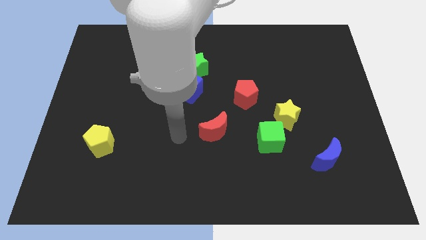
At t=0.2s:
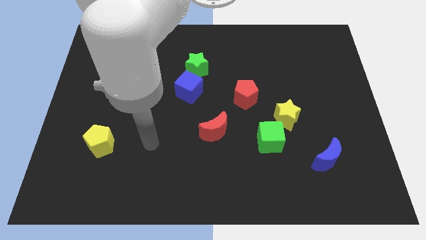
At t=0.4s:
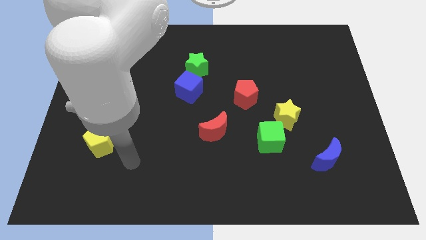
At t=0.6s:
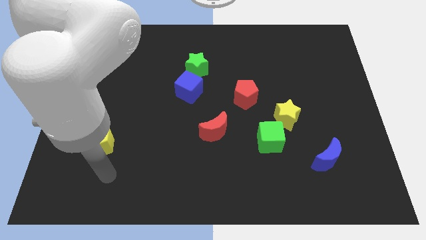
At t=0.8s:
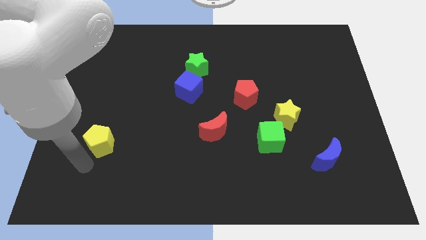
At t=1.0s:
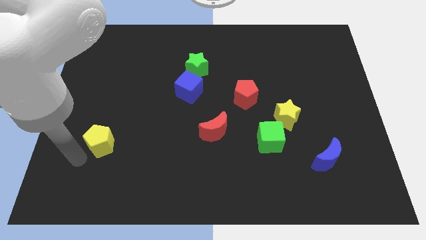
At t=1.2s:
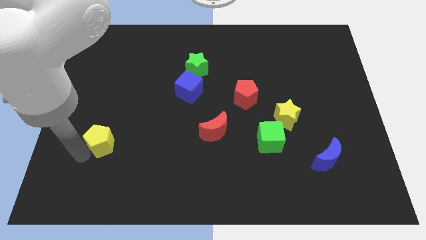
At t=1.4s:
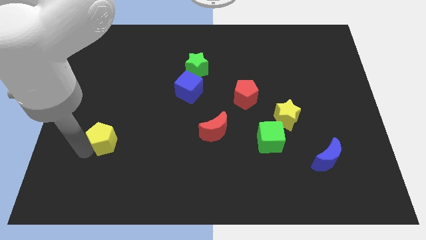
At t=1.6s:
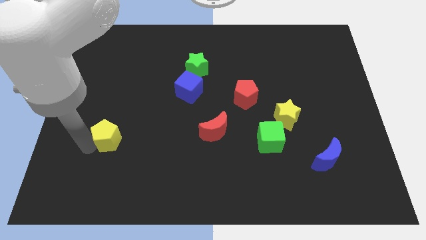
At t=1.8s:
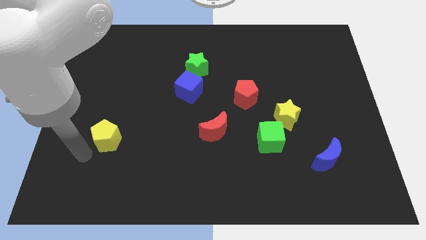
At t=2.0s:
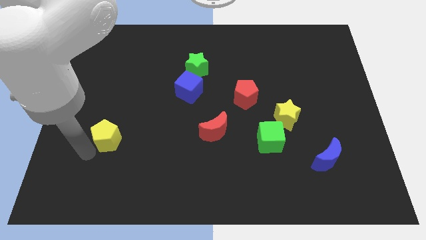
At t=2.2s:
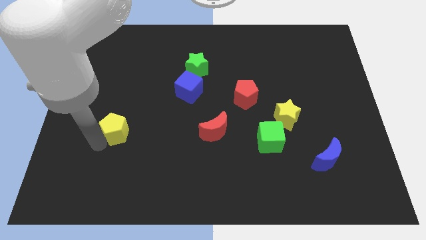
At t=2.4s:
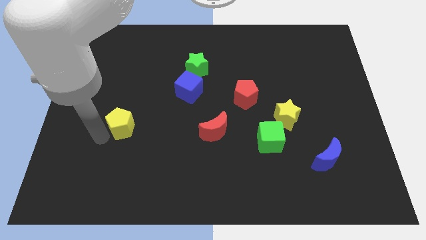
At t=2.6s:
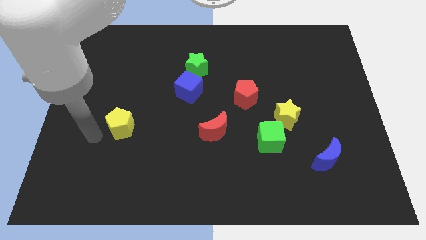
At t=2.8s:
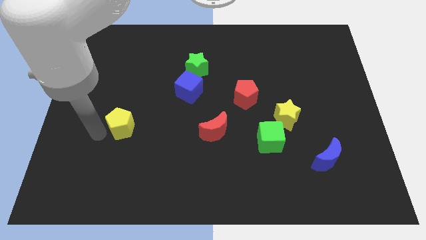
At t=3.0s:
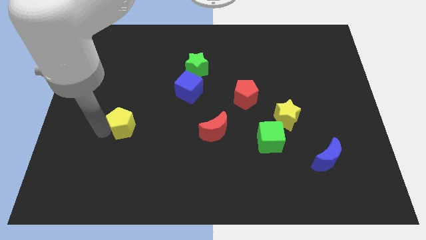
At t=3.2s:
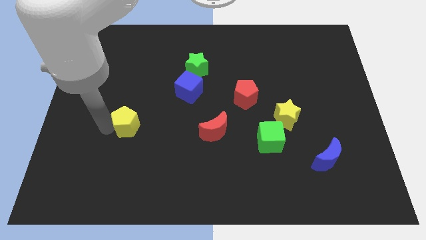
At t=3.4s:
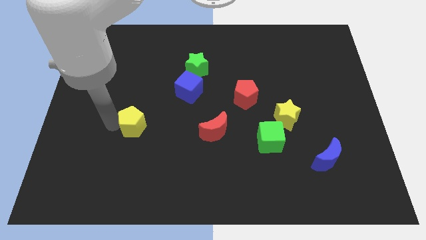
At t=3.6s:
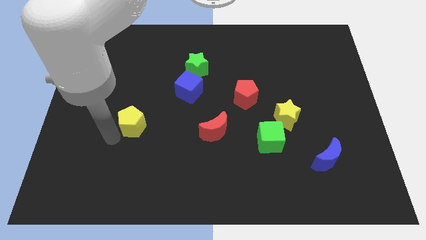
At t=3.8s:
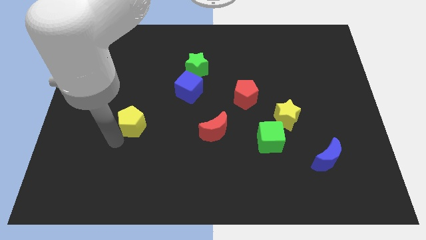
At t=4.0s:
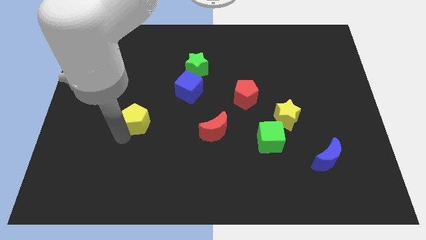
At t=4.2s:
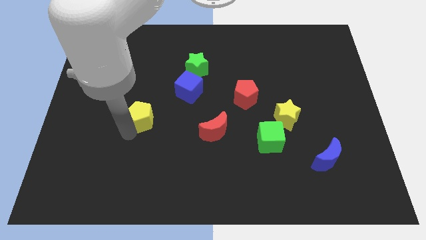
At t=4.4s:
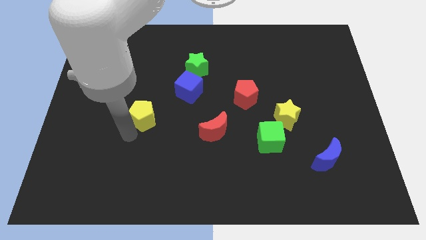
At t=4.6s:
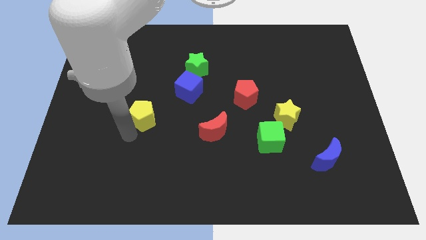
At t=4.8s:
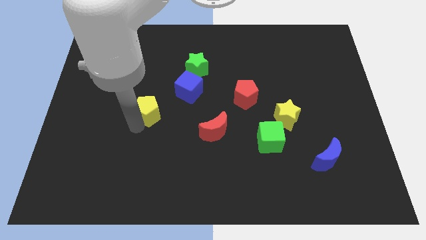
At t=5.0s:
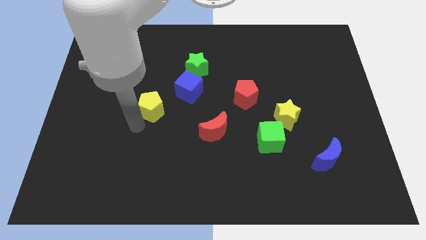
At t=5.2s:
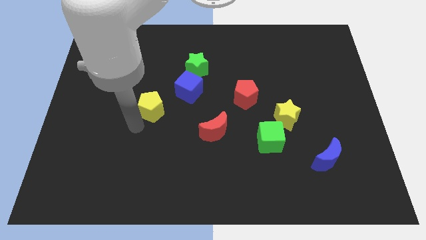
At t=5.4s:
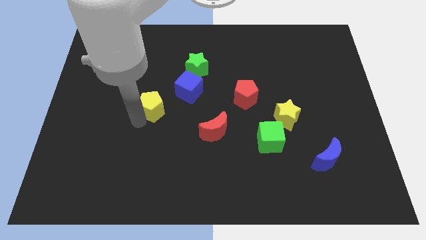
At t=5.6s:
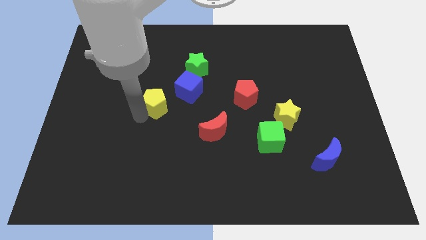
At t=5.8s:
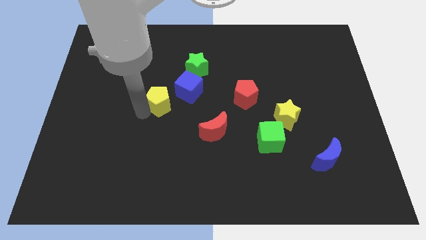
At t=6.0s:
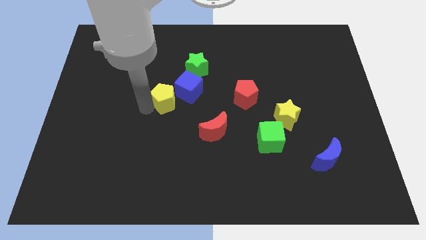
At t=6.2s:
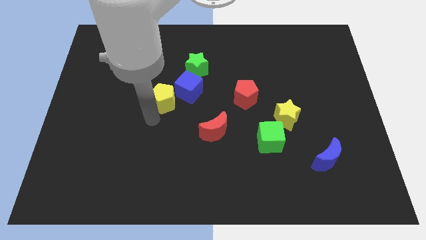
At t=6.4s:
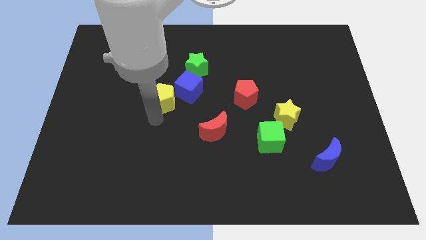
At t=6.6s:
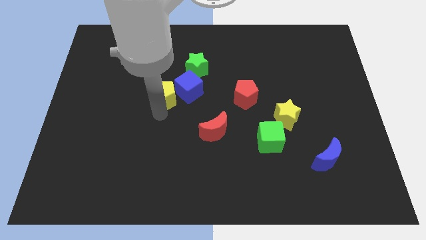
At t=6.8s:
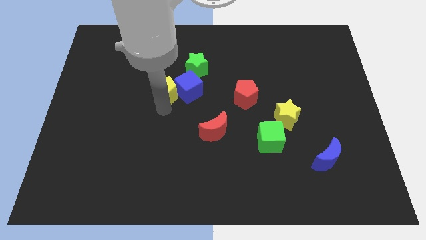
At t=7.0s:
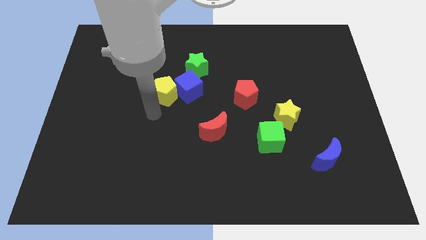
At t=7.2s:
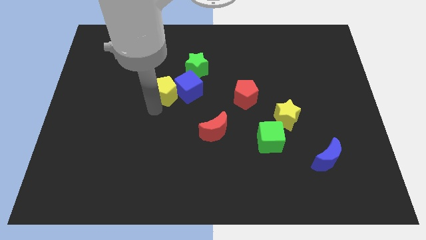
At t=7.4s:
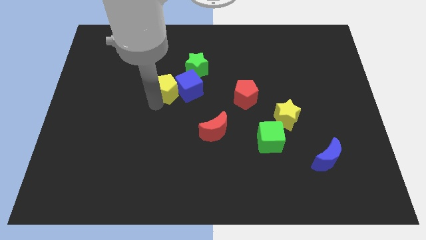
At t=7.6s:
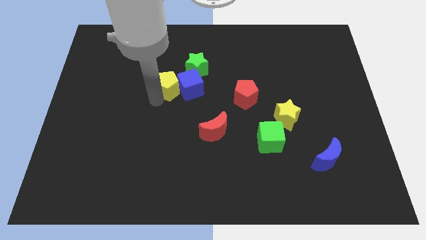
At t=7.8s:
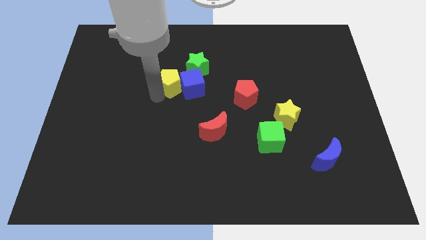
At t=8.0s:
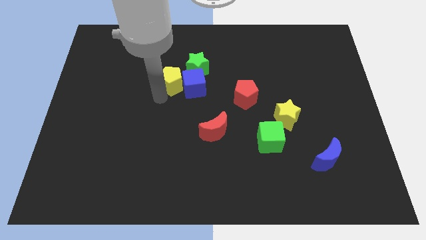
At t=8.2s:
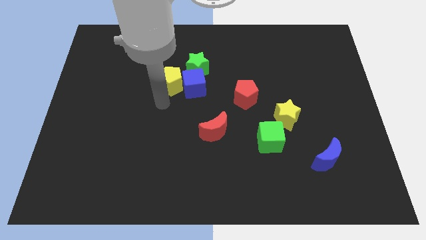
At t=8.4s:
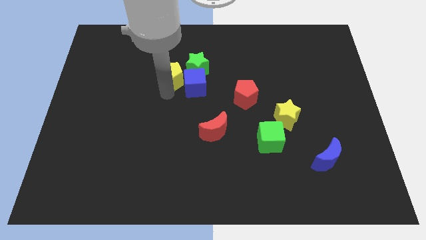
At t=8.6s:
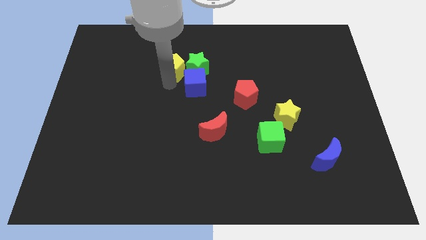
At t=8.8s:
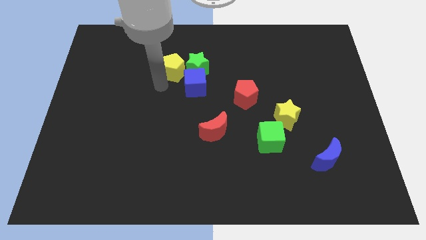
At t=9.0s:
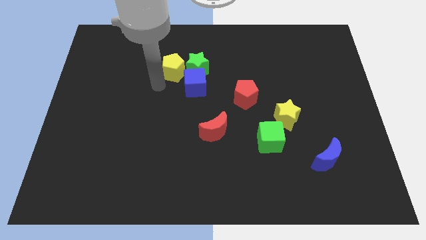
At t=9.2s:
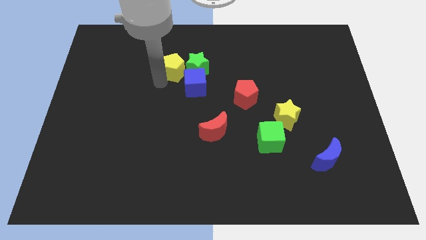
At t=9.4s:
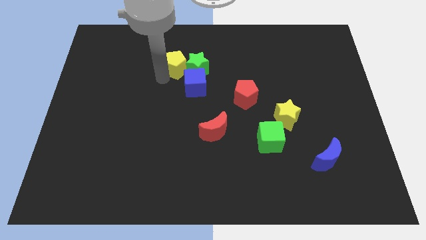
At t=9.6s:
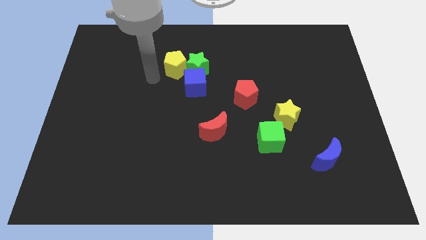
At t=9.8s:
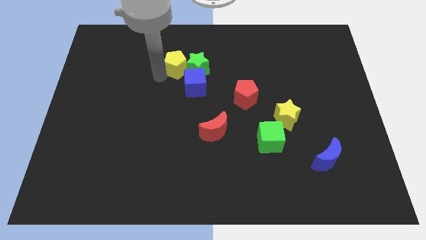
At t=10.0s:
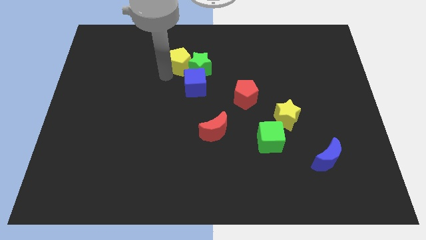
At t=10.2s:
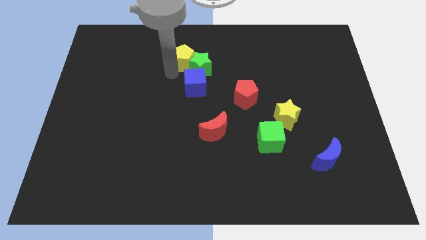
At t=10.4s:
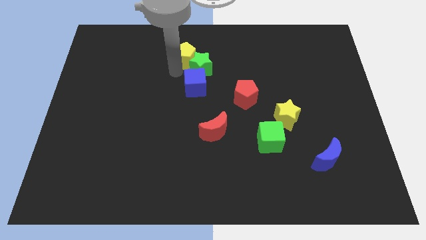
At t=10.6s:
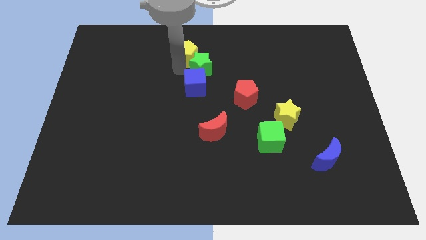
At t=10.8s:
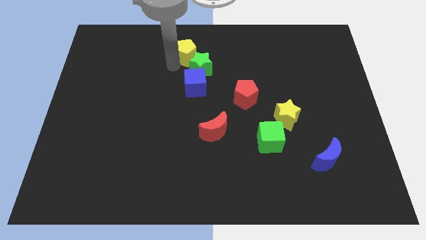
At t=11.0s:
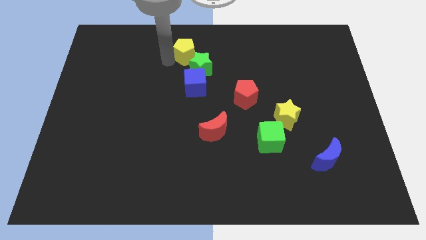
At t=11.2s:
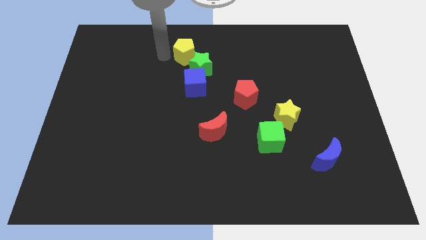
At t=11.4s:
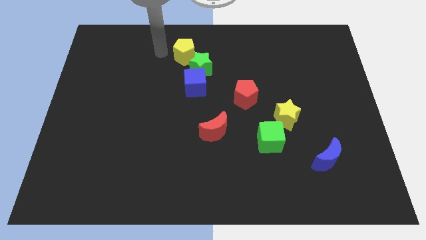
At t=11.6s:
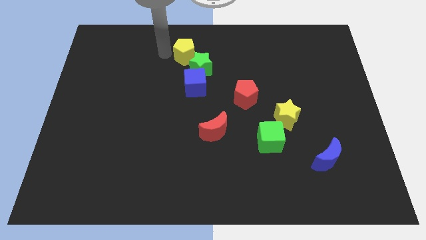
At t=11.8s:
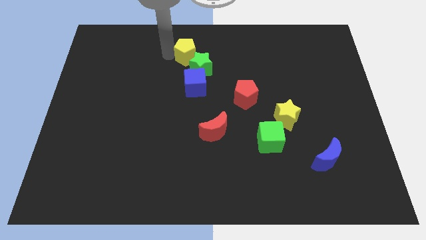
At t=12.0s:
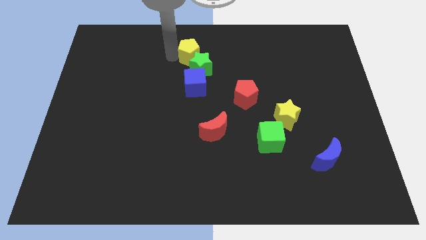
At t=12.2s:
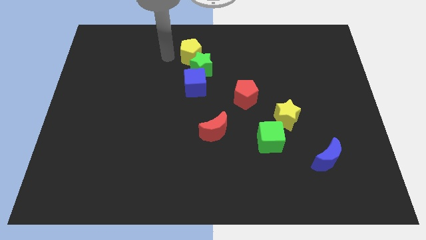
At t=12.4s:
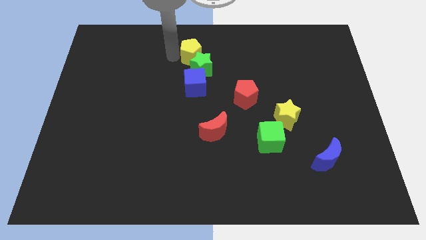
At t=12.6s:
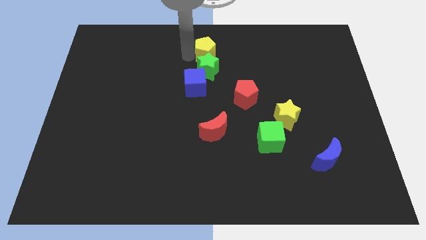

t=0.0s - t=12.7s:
move the yellow pentagon diagonally up and to the right of the green star
